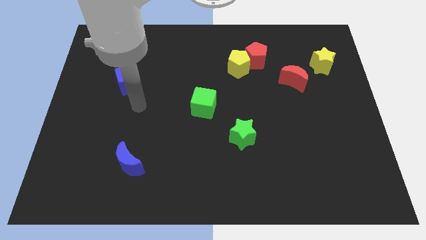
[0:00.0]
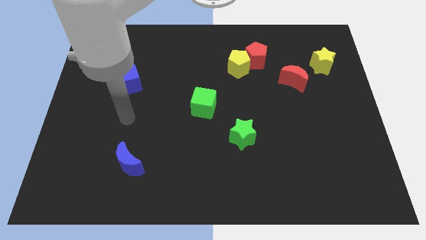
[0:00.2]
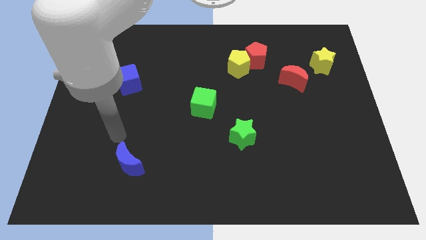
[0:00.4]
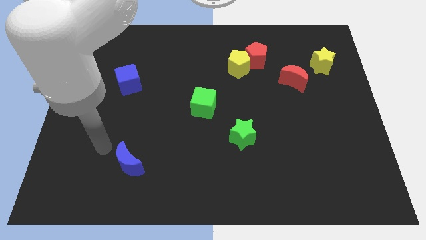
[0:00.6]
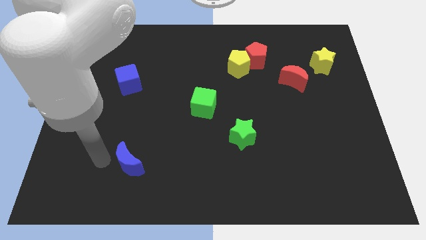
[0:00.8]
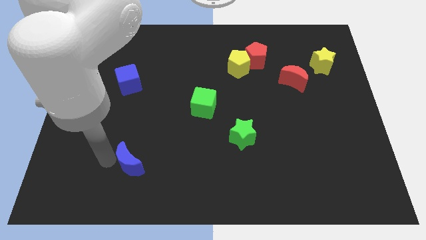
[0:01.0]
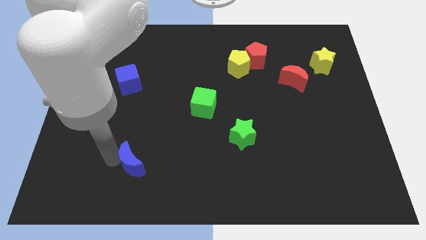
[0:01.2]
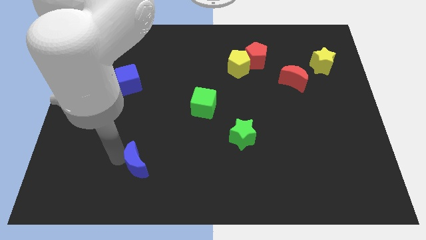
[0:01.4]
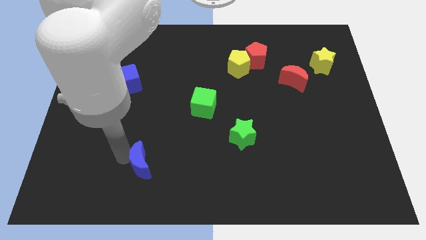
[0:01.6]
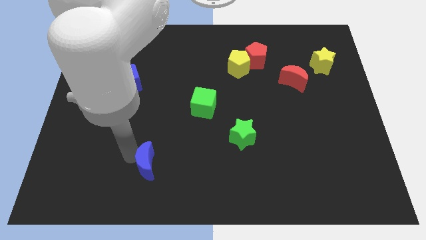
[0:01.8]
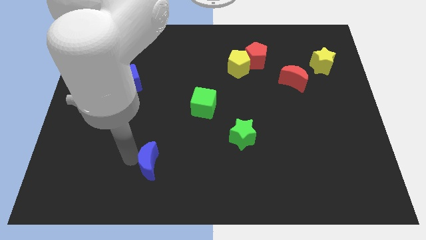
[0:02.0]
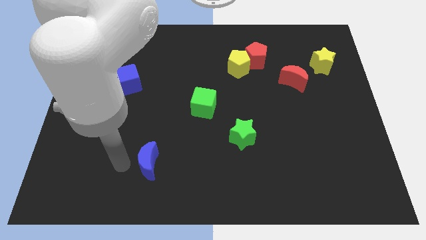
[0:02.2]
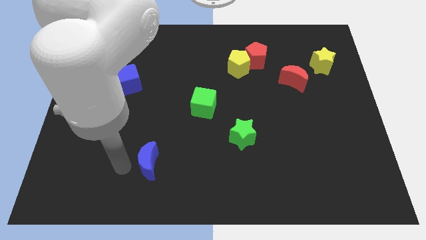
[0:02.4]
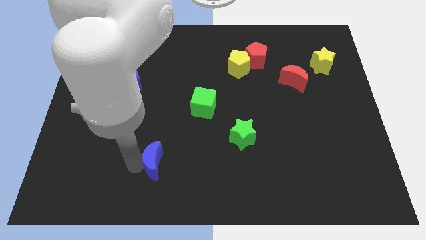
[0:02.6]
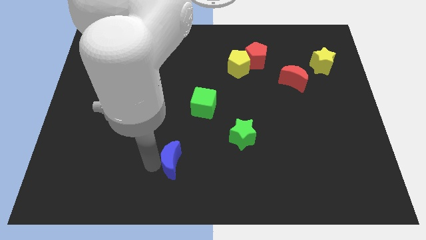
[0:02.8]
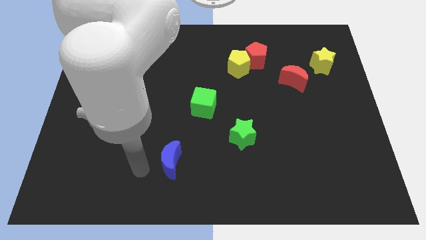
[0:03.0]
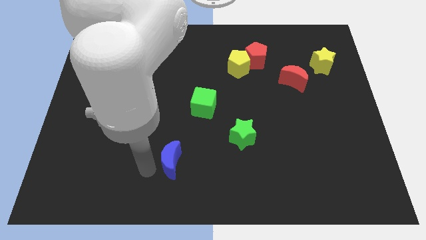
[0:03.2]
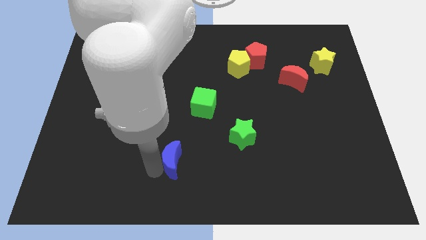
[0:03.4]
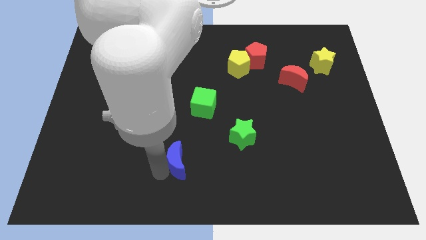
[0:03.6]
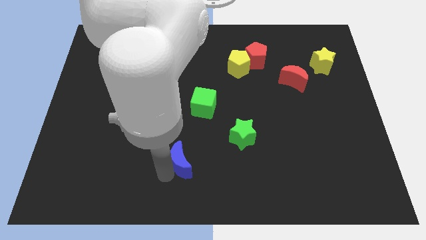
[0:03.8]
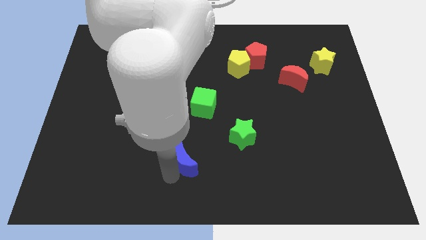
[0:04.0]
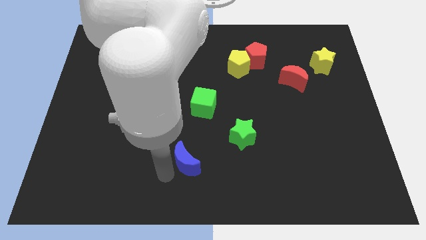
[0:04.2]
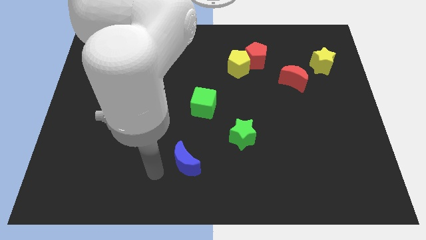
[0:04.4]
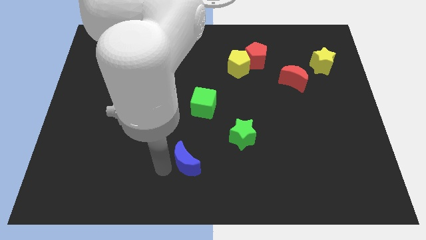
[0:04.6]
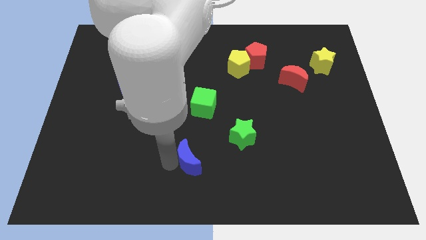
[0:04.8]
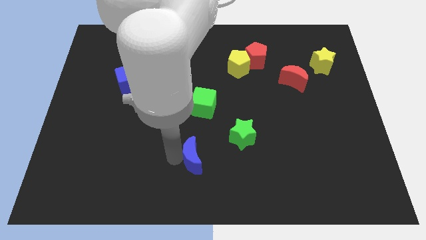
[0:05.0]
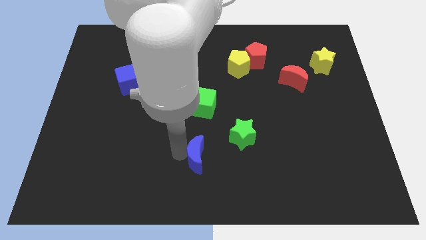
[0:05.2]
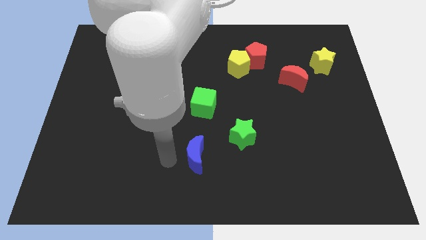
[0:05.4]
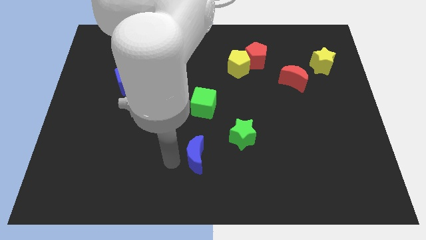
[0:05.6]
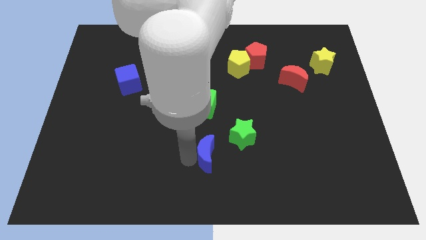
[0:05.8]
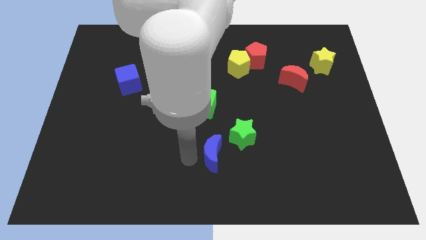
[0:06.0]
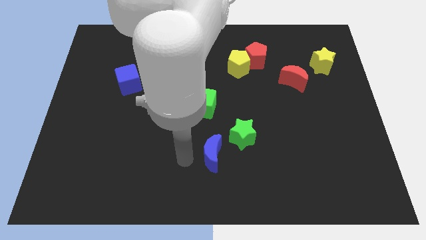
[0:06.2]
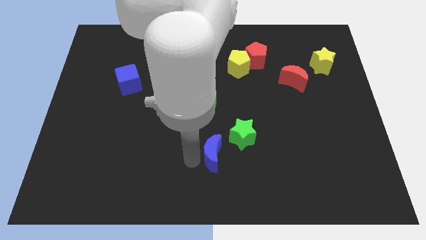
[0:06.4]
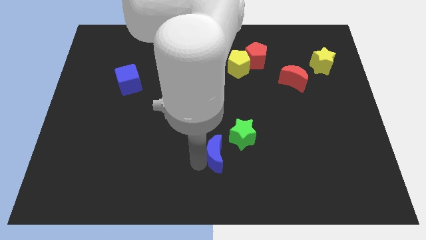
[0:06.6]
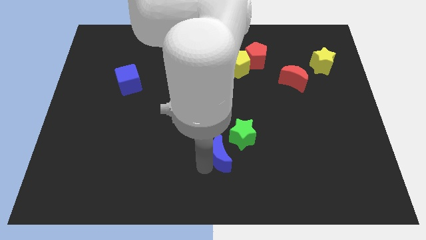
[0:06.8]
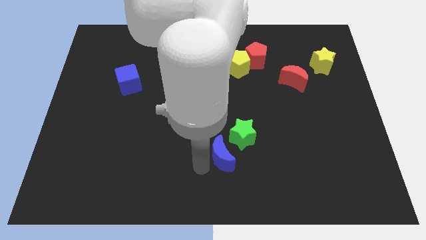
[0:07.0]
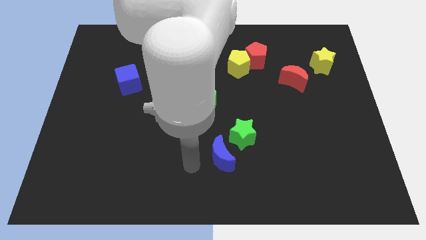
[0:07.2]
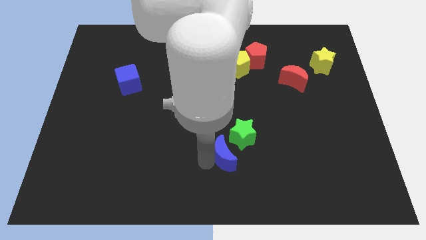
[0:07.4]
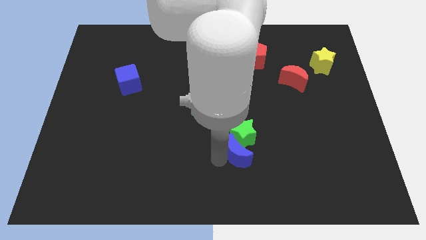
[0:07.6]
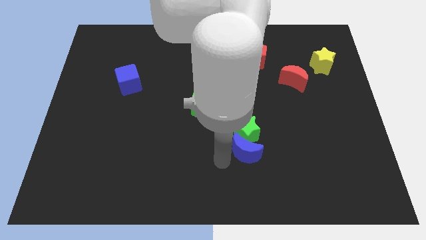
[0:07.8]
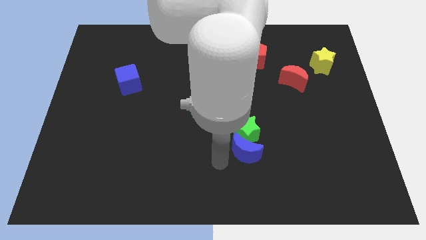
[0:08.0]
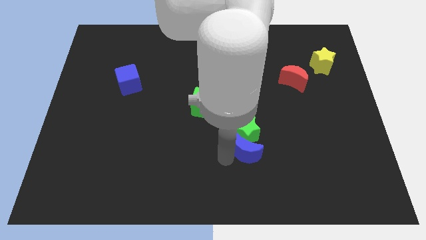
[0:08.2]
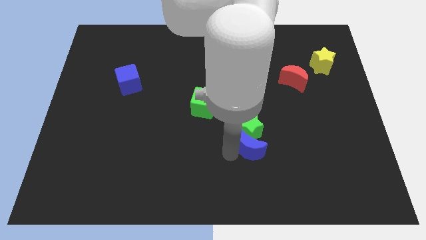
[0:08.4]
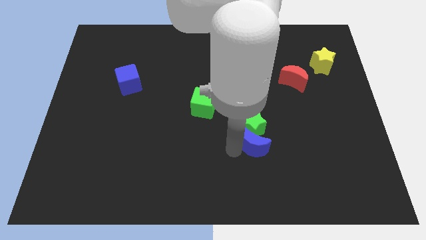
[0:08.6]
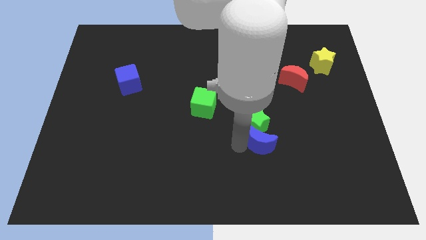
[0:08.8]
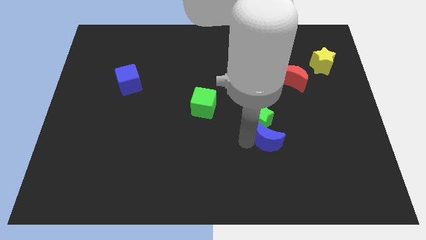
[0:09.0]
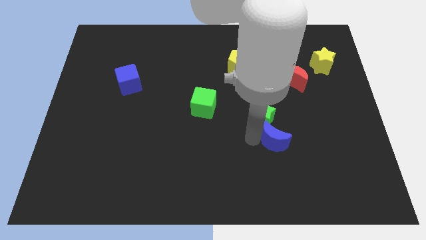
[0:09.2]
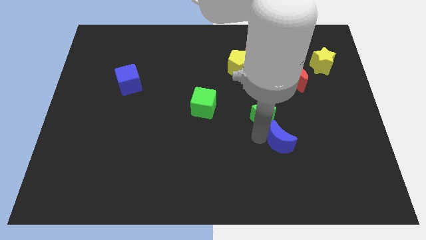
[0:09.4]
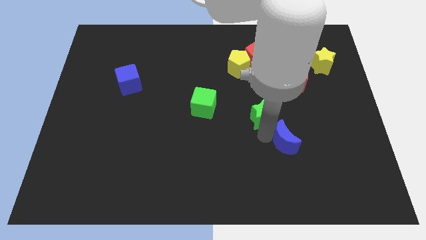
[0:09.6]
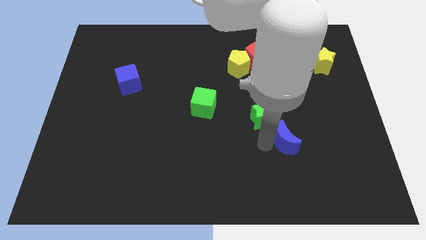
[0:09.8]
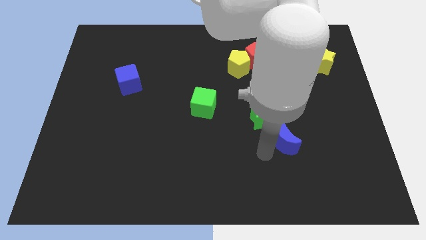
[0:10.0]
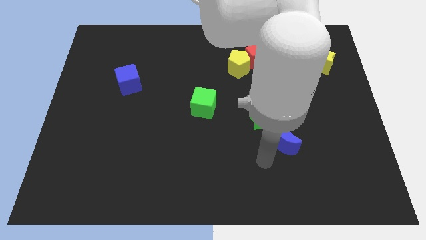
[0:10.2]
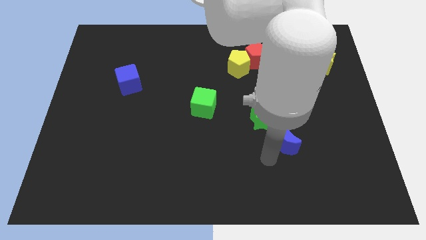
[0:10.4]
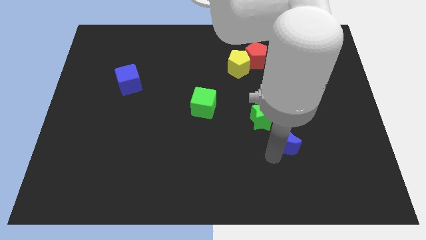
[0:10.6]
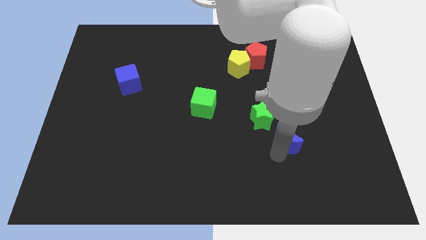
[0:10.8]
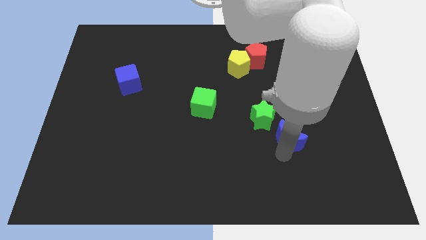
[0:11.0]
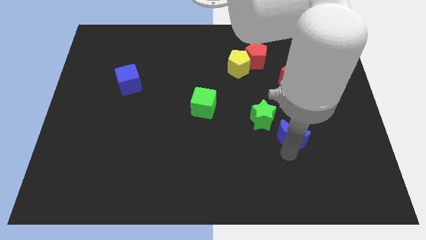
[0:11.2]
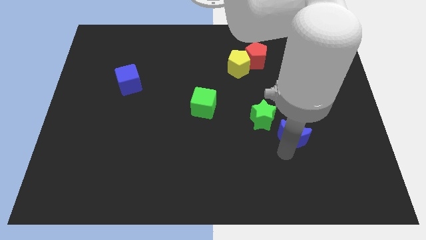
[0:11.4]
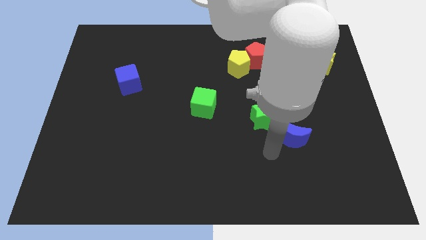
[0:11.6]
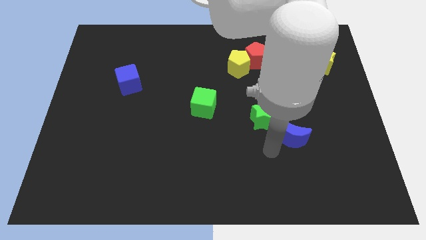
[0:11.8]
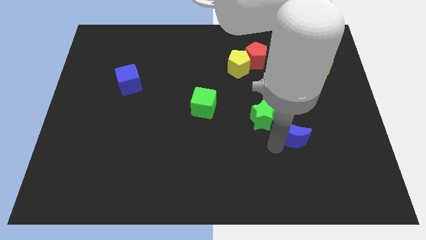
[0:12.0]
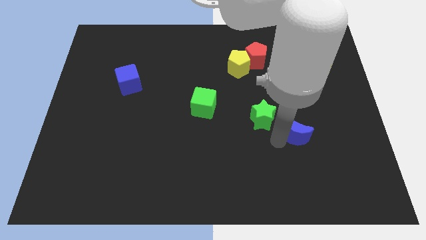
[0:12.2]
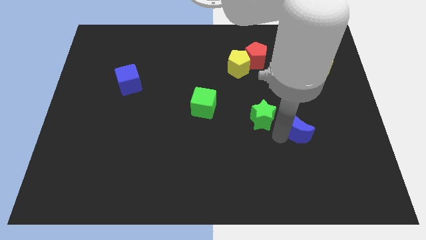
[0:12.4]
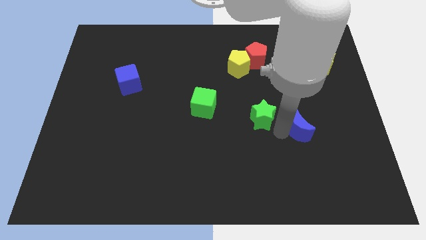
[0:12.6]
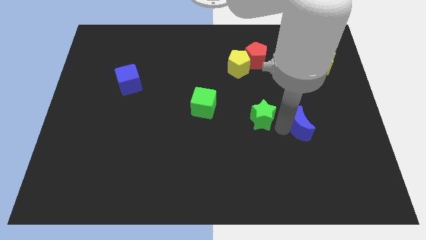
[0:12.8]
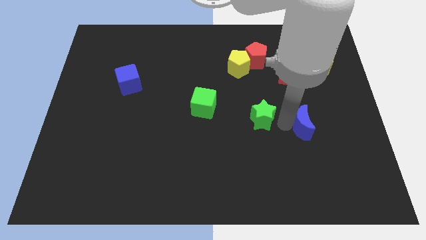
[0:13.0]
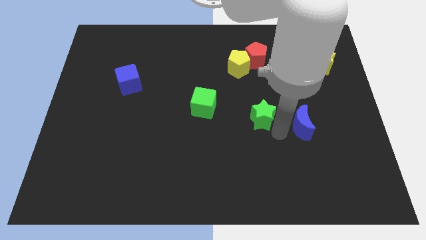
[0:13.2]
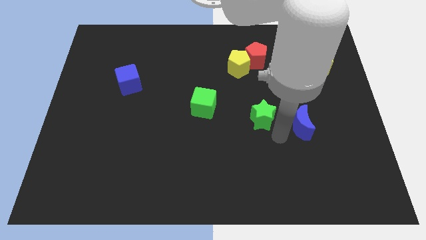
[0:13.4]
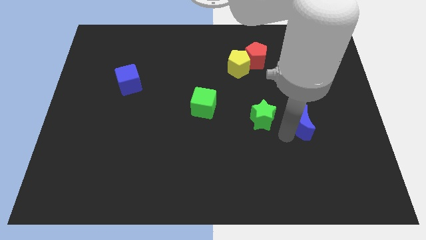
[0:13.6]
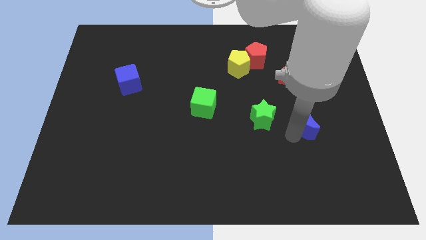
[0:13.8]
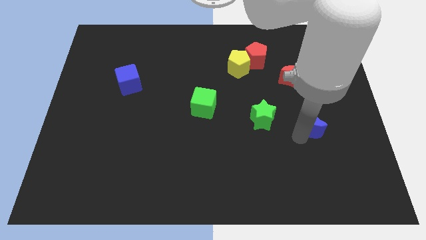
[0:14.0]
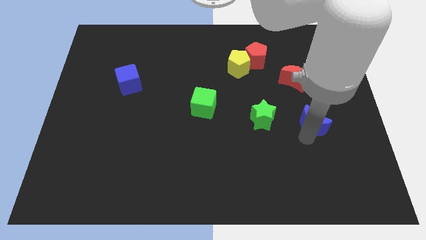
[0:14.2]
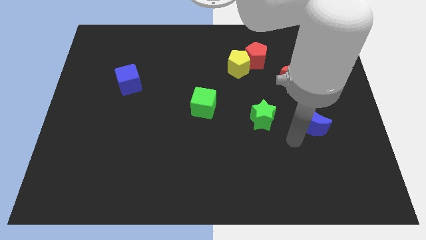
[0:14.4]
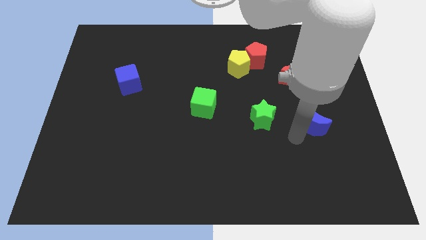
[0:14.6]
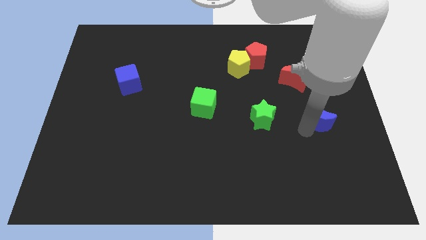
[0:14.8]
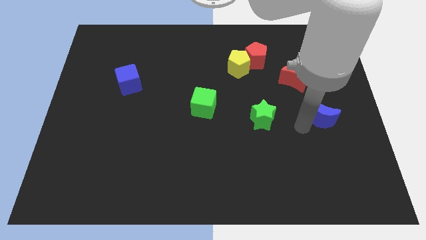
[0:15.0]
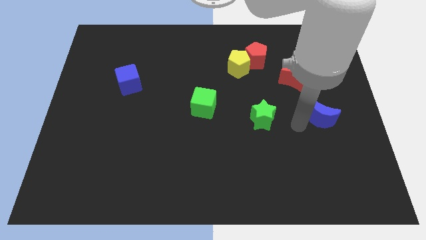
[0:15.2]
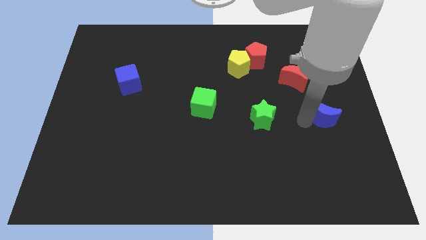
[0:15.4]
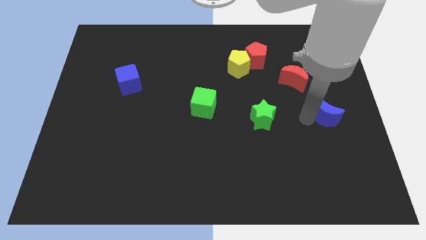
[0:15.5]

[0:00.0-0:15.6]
push the blue moon to the right side of the board
